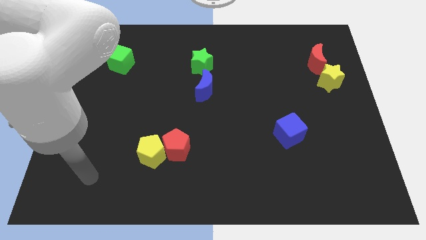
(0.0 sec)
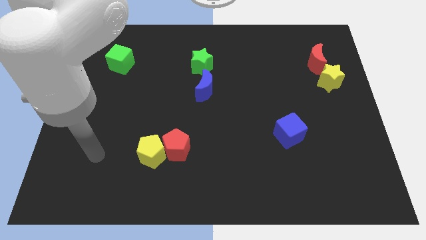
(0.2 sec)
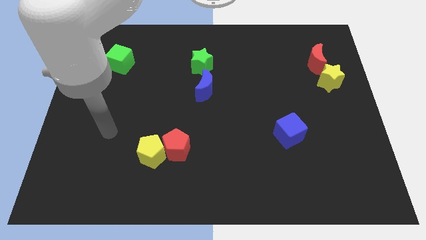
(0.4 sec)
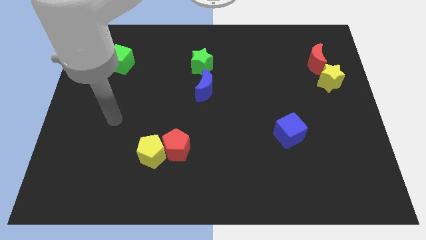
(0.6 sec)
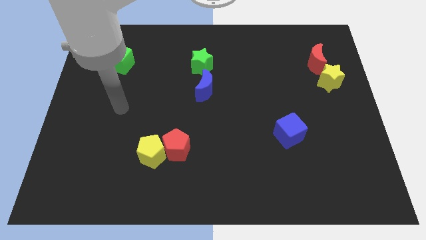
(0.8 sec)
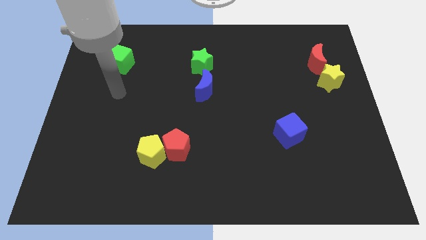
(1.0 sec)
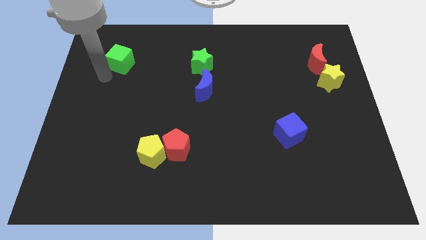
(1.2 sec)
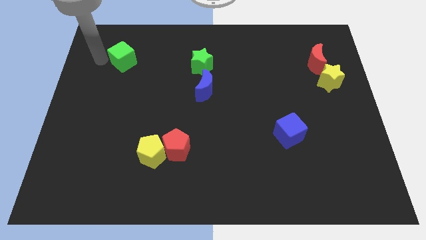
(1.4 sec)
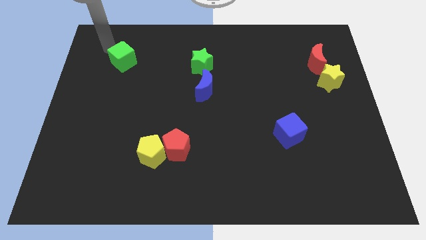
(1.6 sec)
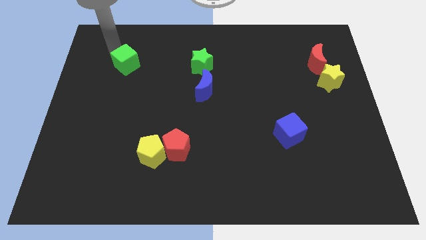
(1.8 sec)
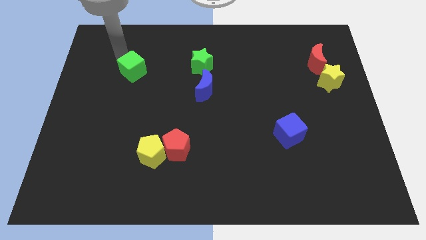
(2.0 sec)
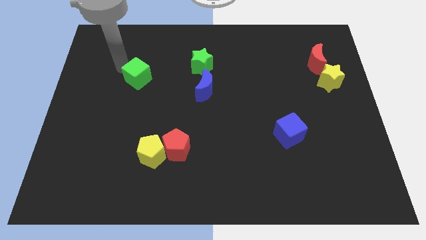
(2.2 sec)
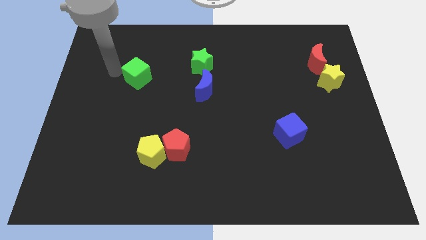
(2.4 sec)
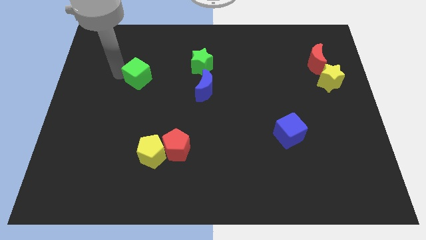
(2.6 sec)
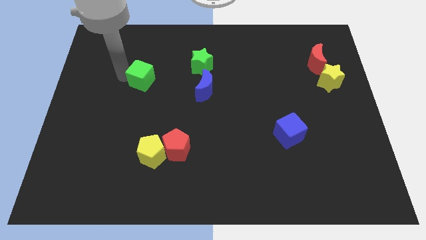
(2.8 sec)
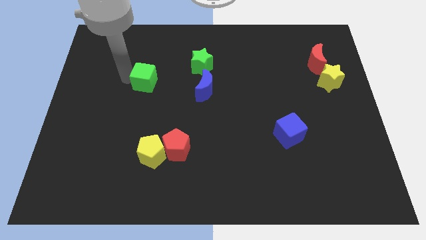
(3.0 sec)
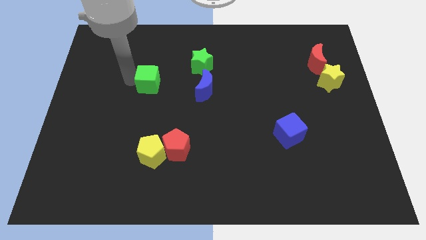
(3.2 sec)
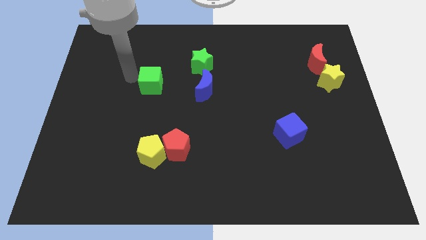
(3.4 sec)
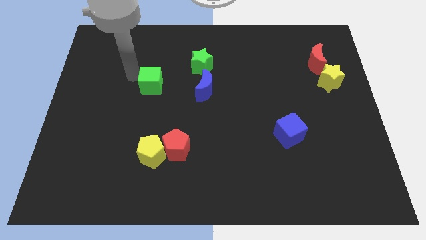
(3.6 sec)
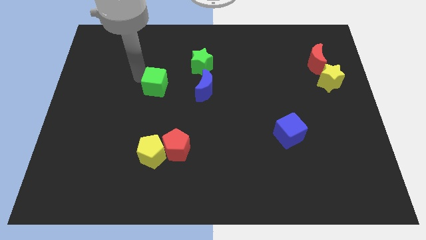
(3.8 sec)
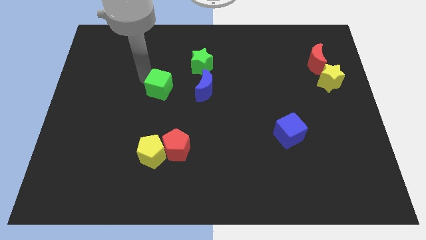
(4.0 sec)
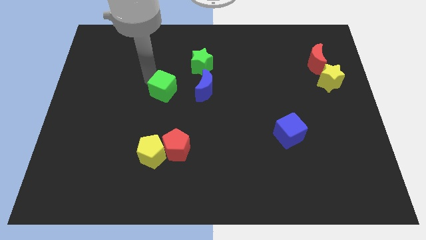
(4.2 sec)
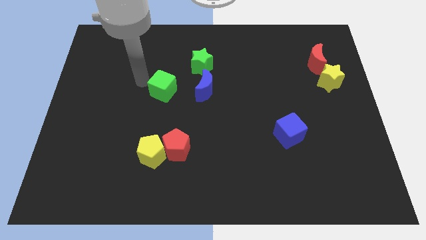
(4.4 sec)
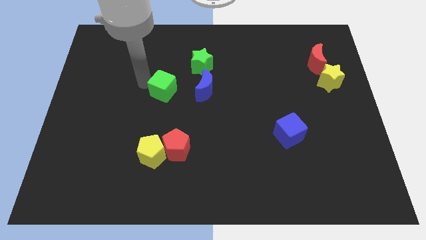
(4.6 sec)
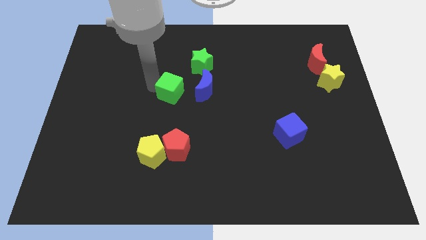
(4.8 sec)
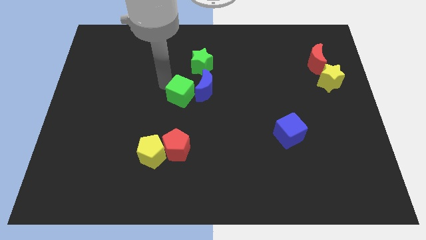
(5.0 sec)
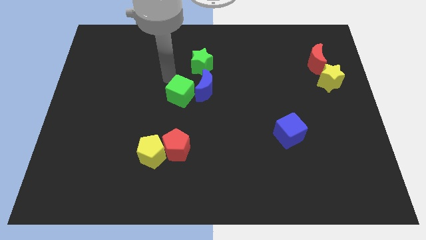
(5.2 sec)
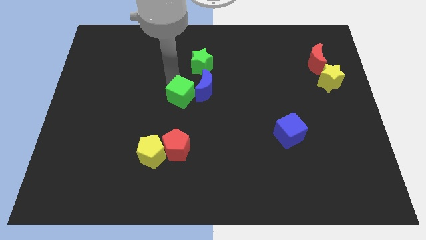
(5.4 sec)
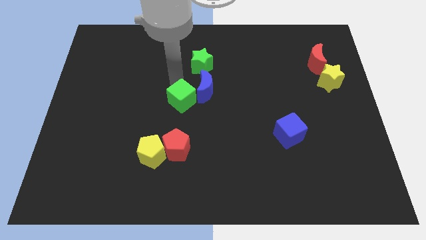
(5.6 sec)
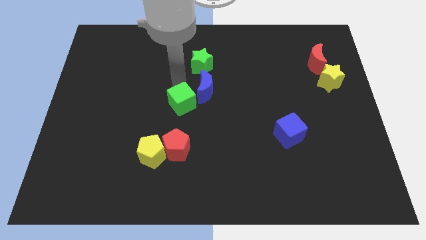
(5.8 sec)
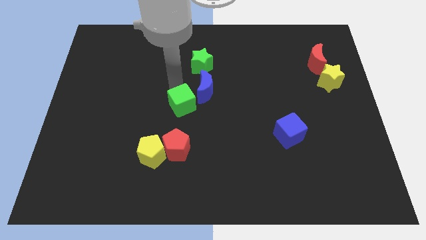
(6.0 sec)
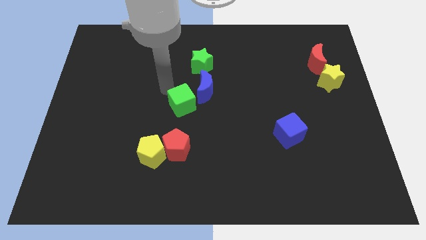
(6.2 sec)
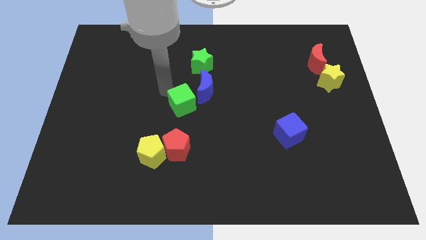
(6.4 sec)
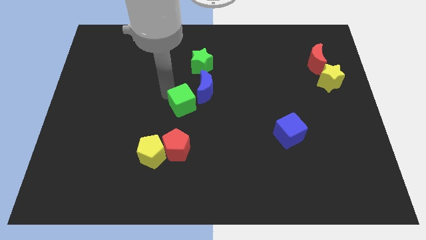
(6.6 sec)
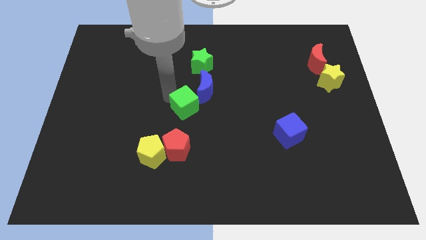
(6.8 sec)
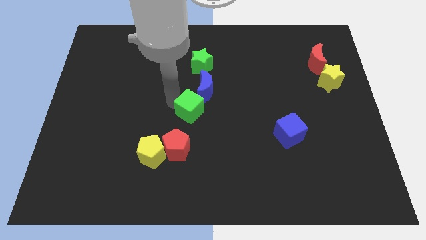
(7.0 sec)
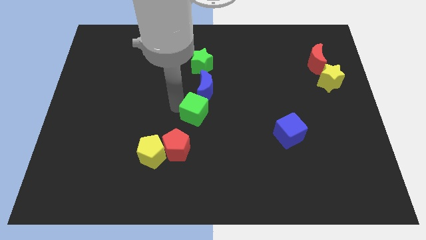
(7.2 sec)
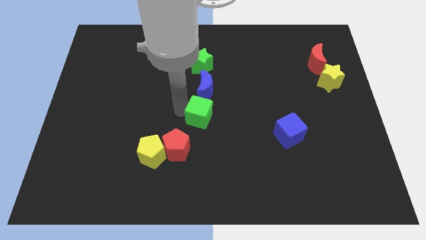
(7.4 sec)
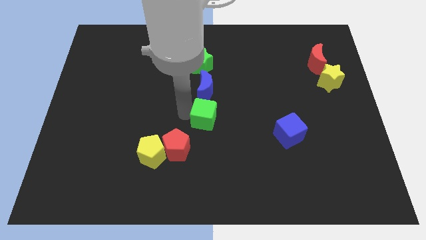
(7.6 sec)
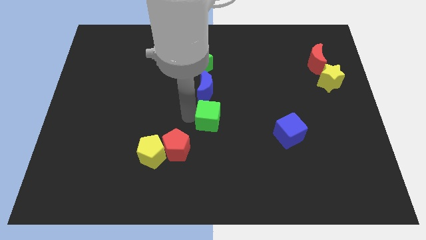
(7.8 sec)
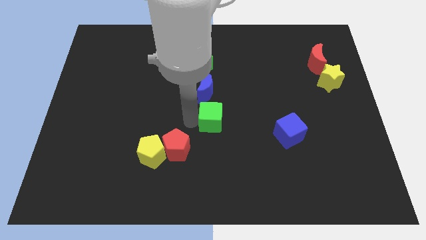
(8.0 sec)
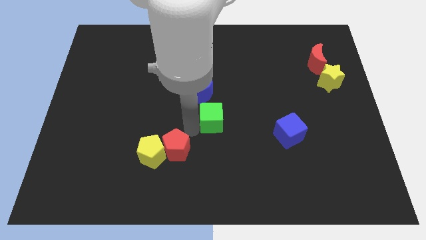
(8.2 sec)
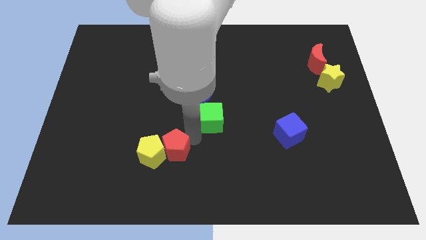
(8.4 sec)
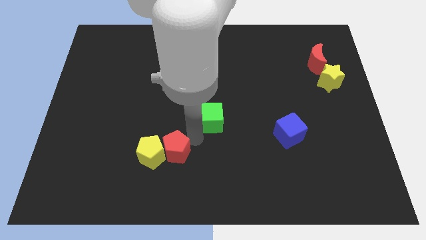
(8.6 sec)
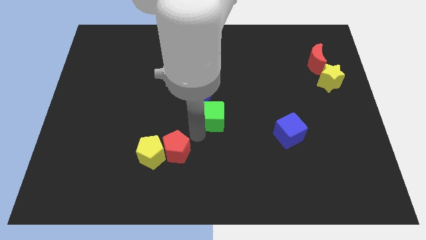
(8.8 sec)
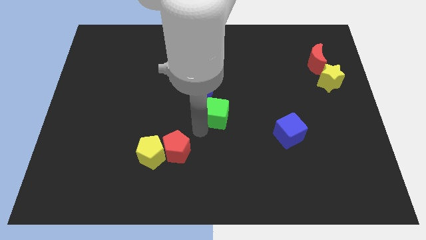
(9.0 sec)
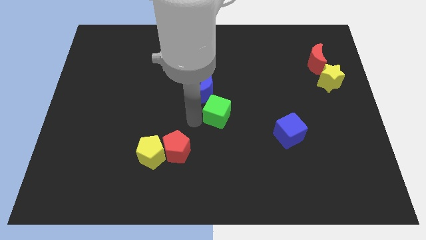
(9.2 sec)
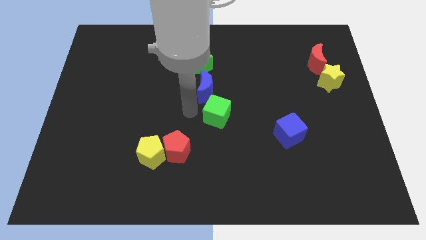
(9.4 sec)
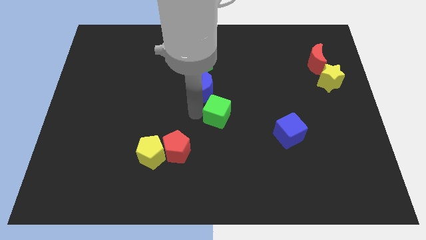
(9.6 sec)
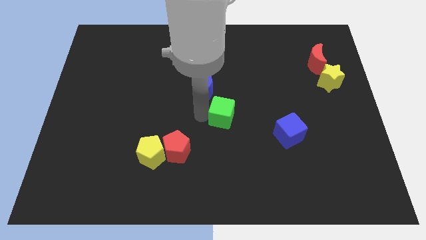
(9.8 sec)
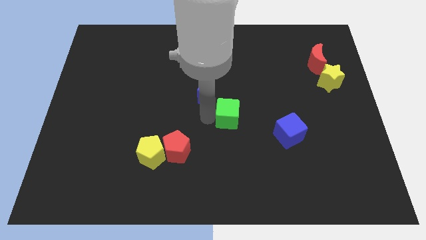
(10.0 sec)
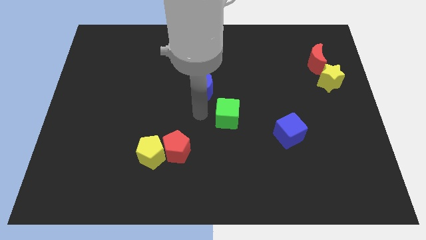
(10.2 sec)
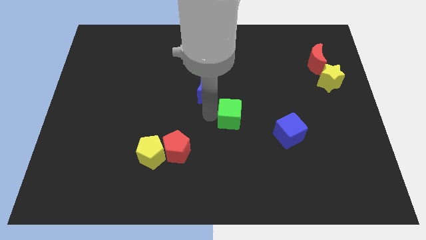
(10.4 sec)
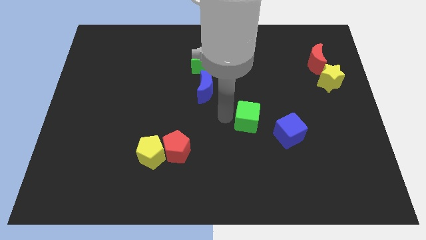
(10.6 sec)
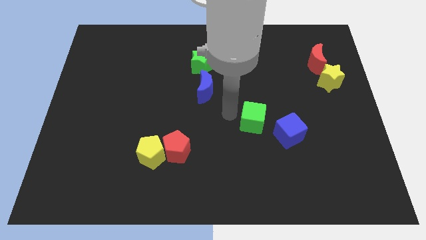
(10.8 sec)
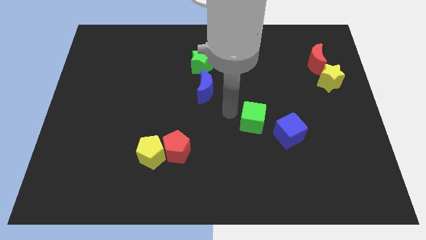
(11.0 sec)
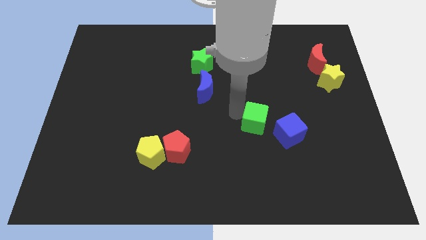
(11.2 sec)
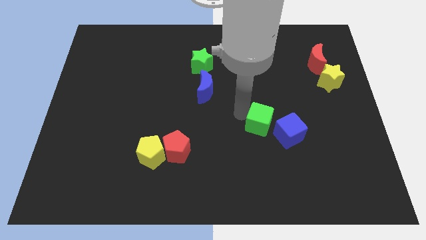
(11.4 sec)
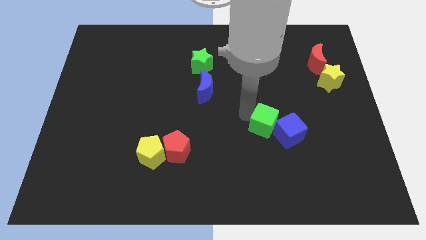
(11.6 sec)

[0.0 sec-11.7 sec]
push the green cube next to the blue cube

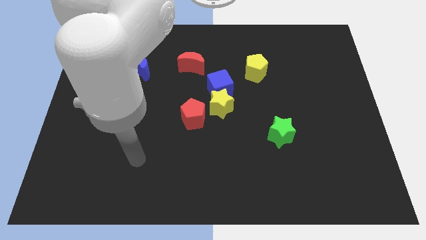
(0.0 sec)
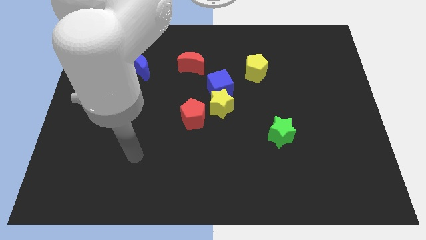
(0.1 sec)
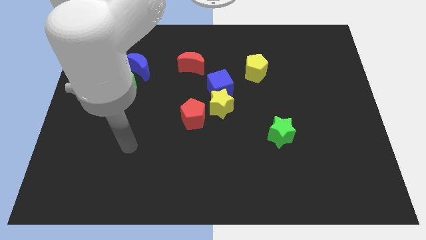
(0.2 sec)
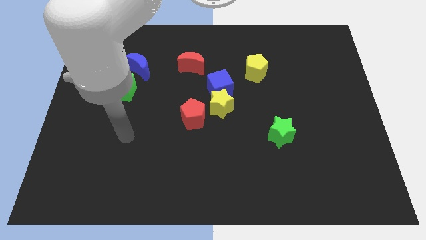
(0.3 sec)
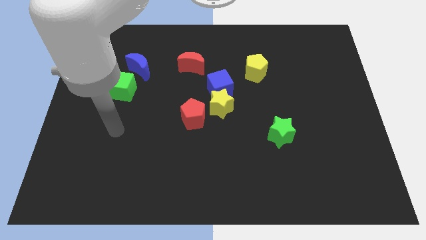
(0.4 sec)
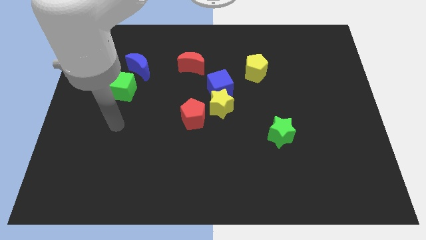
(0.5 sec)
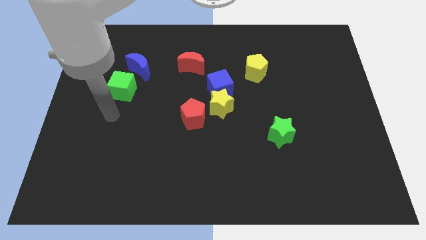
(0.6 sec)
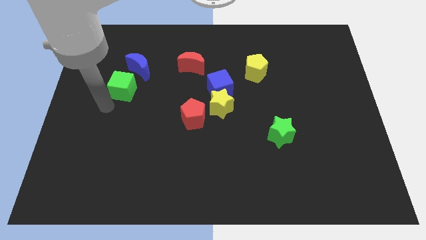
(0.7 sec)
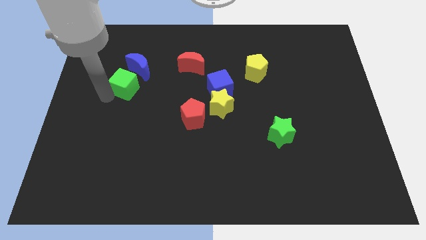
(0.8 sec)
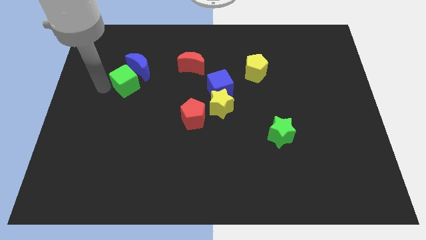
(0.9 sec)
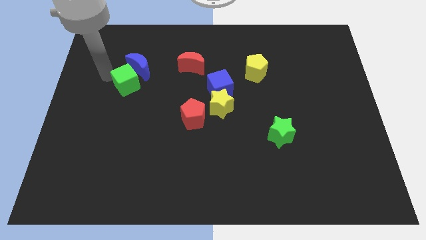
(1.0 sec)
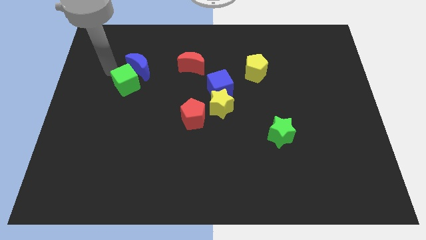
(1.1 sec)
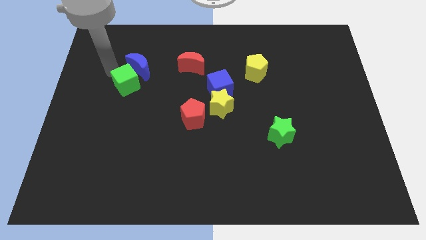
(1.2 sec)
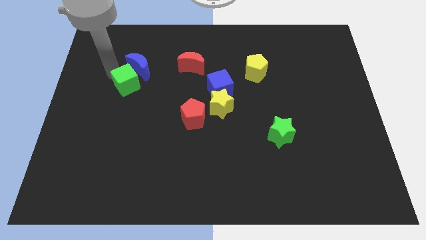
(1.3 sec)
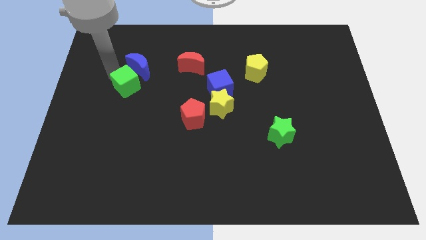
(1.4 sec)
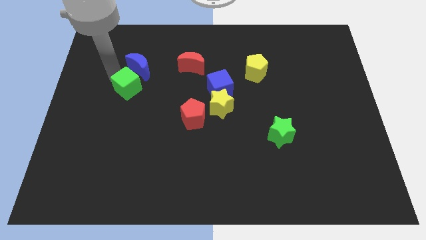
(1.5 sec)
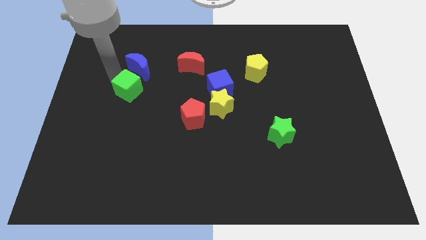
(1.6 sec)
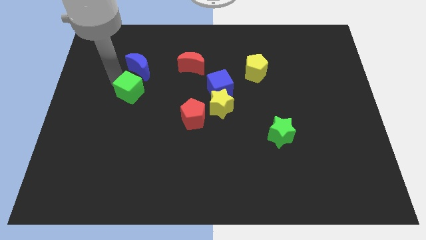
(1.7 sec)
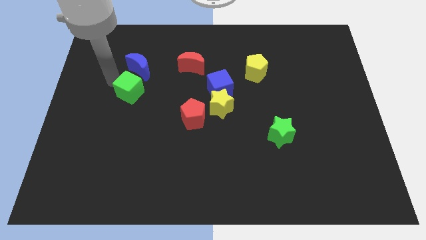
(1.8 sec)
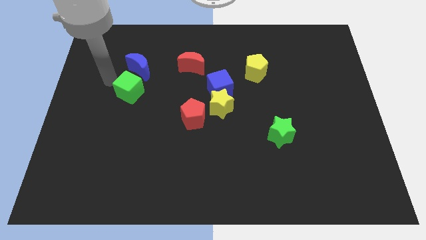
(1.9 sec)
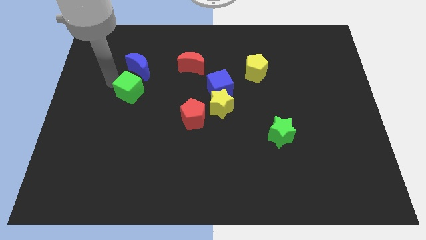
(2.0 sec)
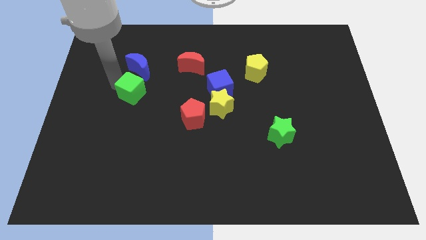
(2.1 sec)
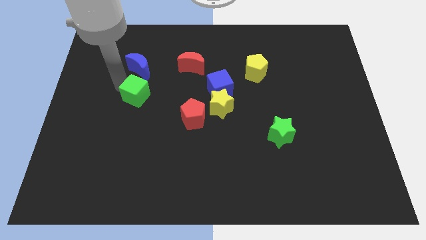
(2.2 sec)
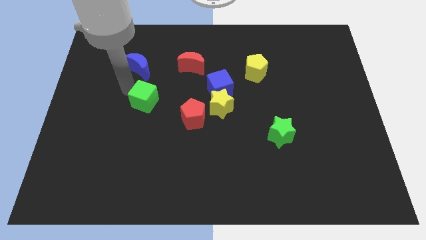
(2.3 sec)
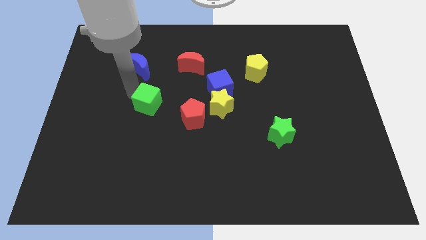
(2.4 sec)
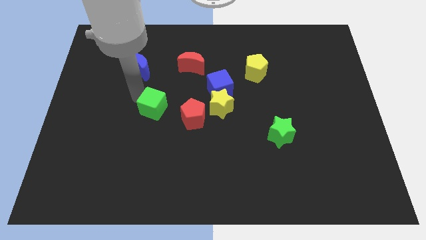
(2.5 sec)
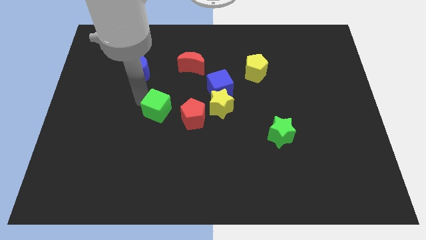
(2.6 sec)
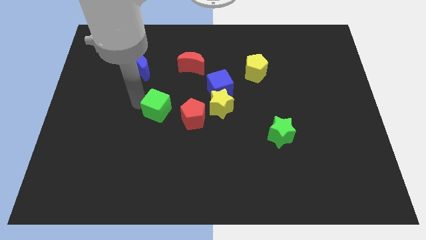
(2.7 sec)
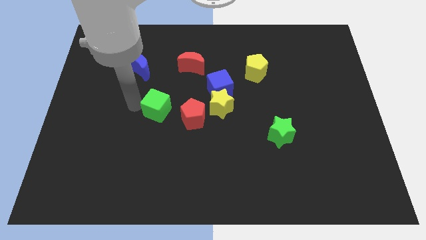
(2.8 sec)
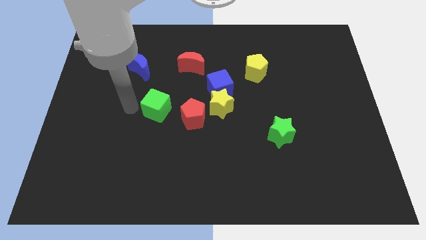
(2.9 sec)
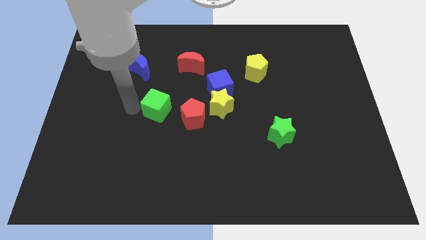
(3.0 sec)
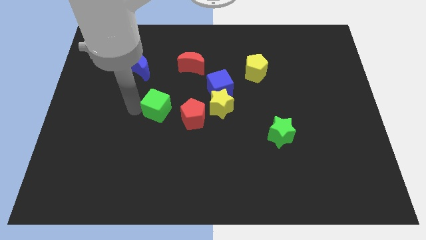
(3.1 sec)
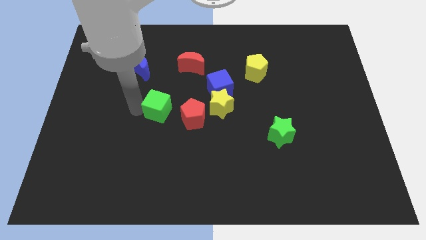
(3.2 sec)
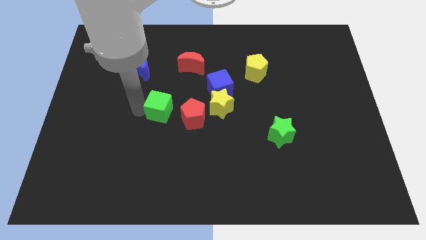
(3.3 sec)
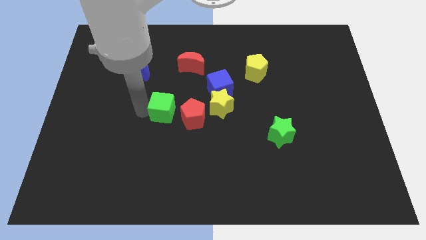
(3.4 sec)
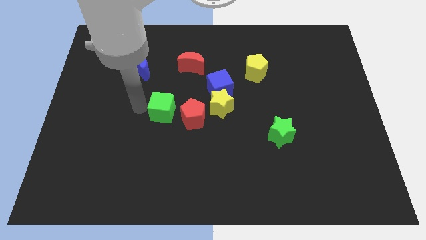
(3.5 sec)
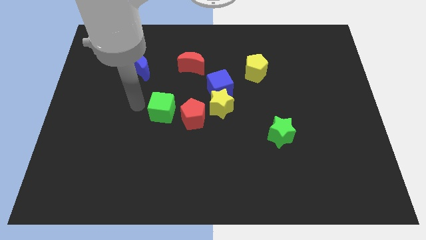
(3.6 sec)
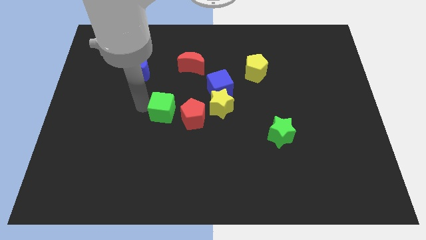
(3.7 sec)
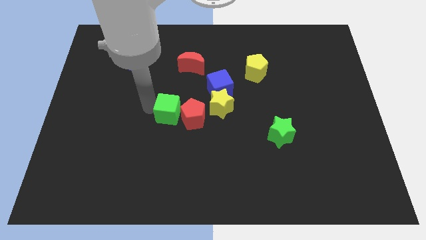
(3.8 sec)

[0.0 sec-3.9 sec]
put the green cube to the red pentagon
